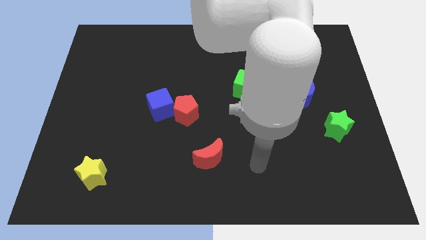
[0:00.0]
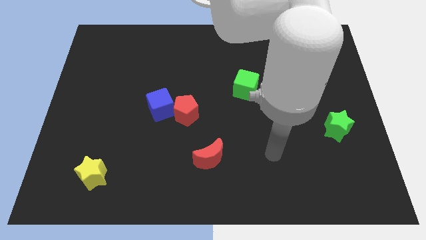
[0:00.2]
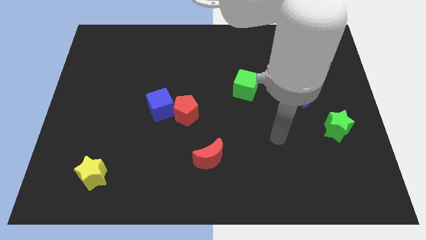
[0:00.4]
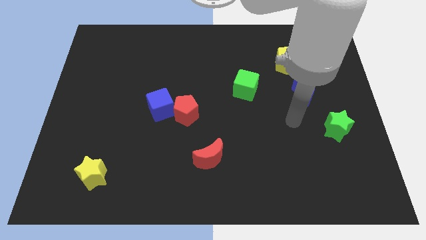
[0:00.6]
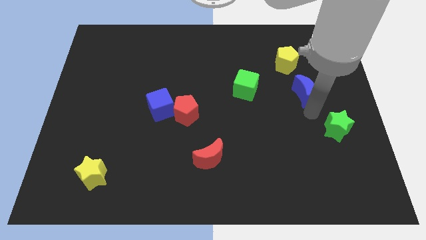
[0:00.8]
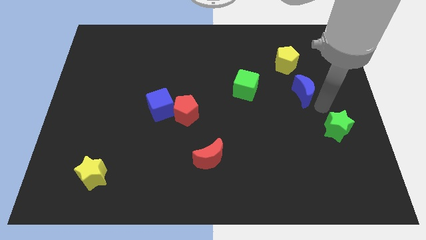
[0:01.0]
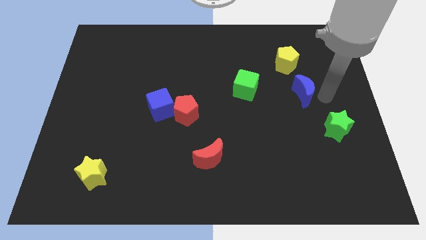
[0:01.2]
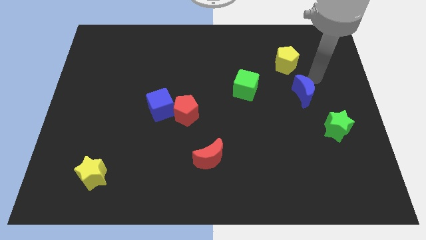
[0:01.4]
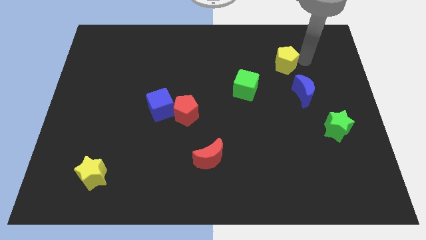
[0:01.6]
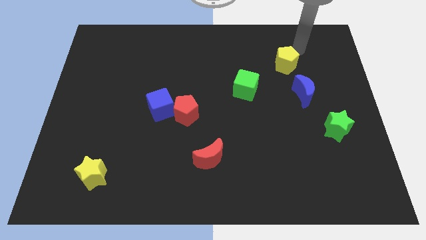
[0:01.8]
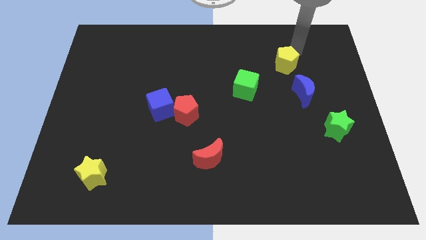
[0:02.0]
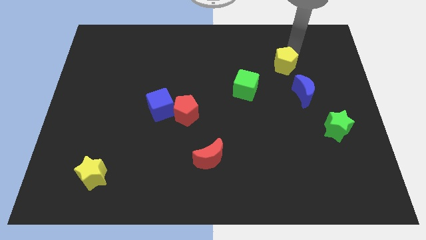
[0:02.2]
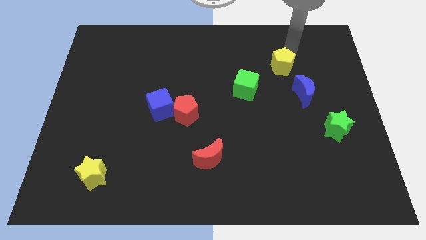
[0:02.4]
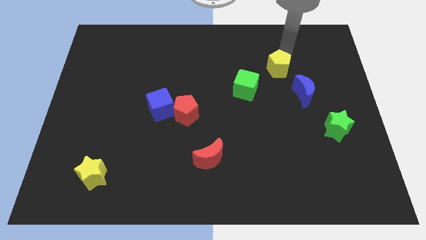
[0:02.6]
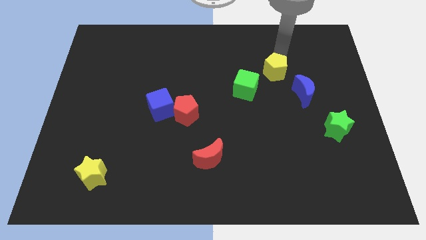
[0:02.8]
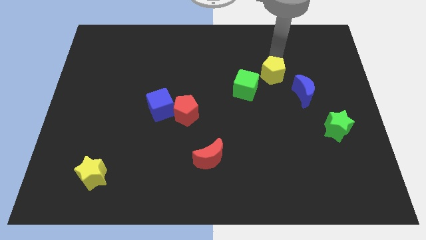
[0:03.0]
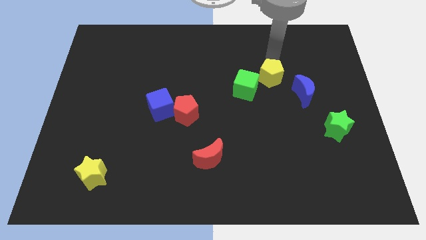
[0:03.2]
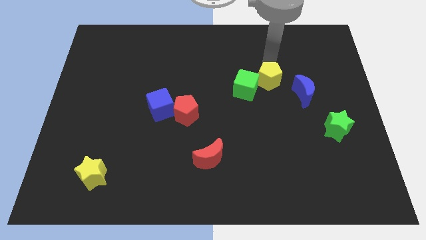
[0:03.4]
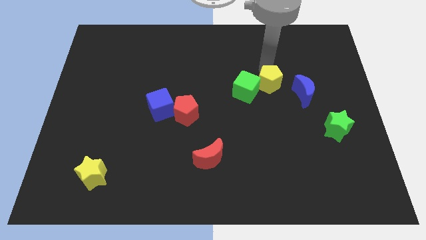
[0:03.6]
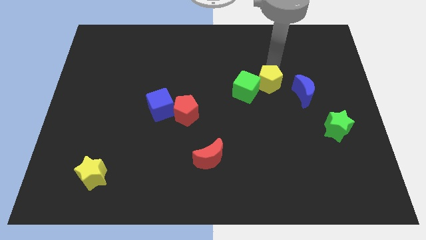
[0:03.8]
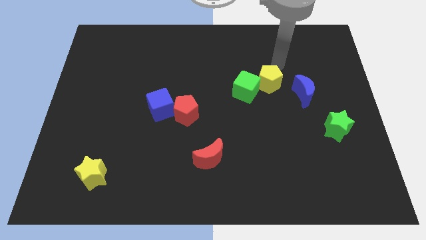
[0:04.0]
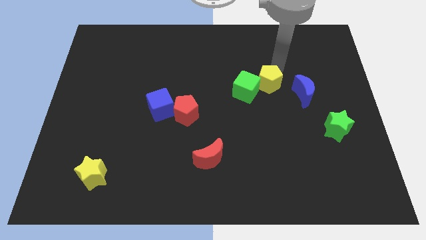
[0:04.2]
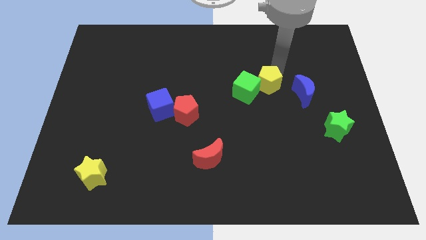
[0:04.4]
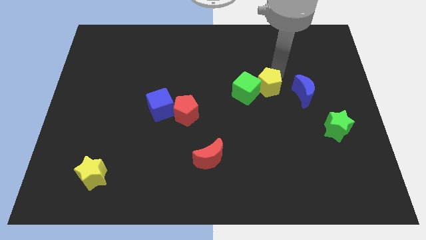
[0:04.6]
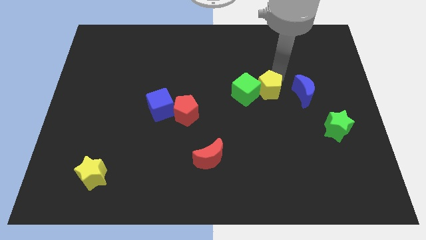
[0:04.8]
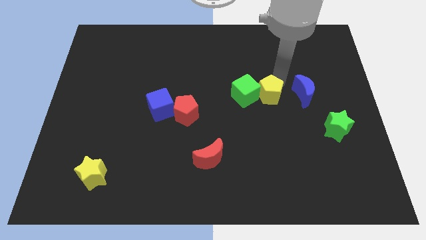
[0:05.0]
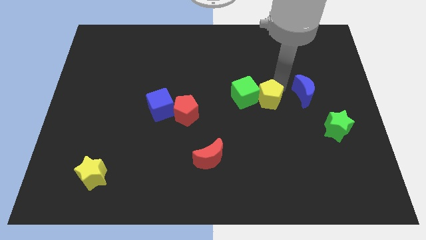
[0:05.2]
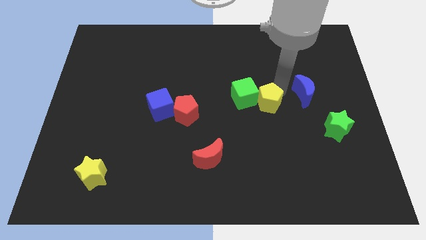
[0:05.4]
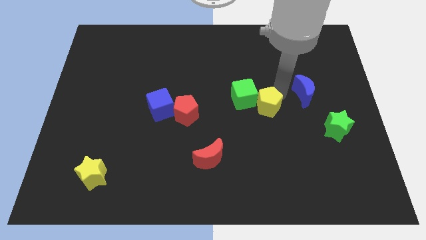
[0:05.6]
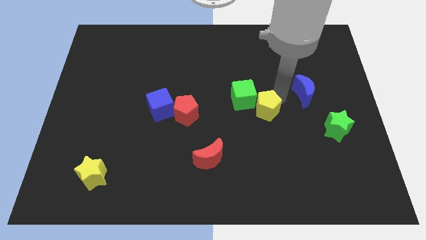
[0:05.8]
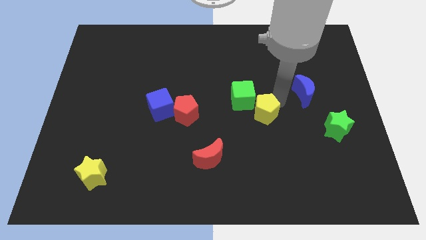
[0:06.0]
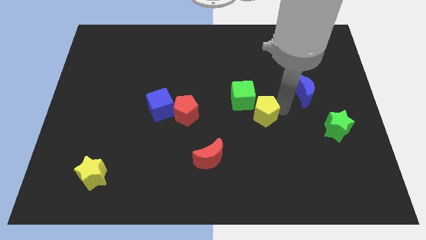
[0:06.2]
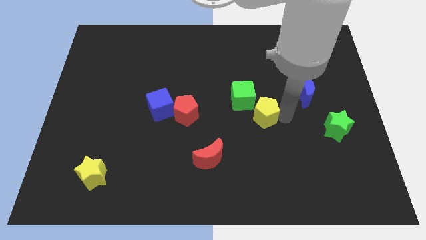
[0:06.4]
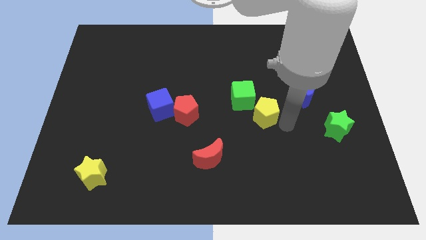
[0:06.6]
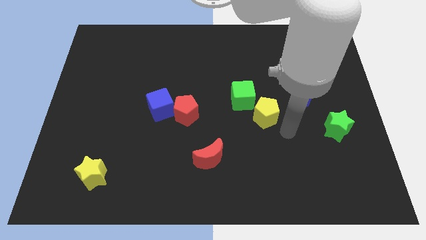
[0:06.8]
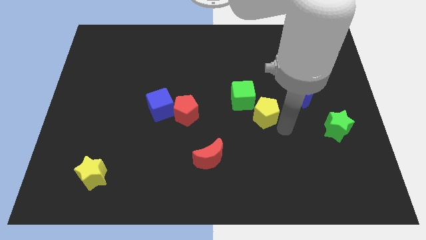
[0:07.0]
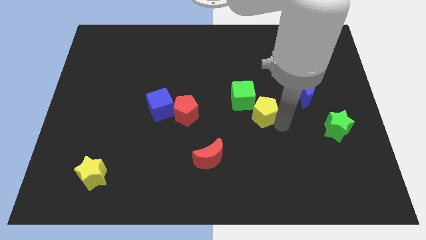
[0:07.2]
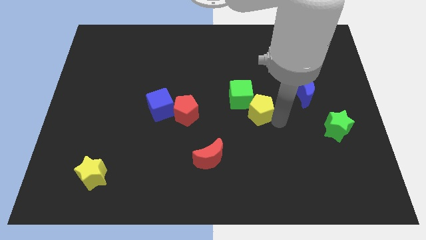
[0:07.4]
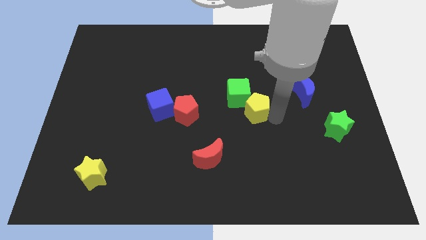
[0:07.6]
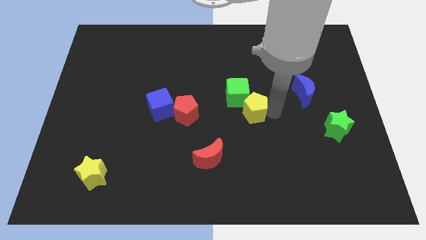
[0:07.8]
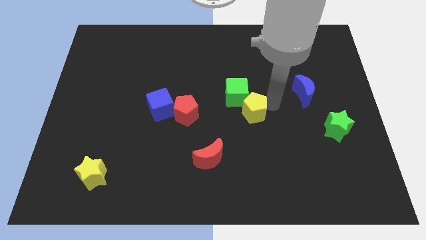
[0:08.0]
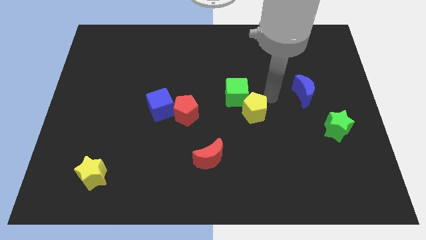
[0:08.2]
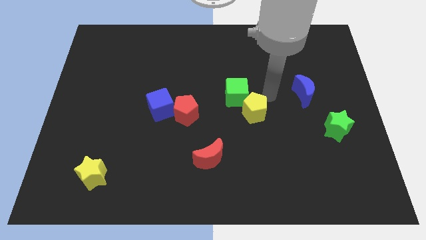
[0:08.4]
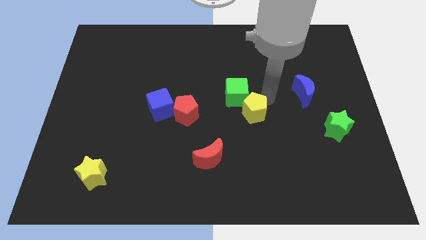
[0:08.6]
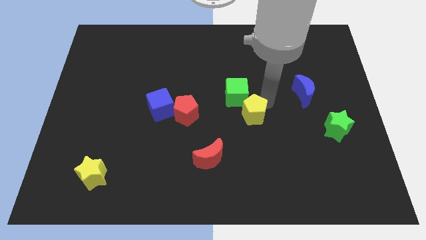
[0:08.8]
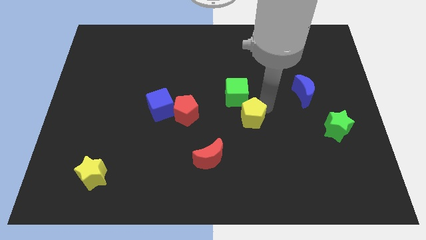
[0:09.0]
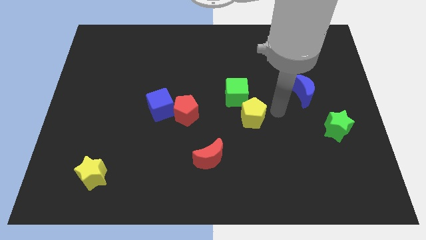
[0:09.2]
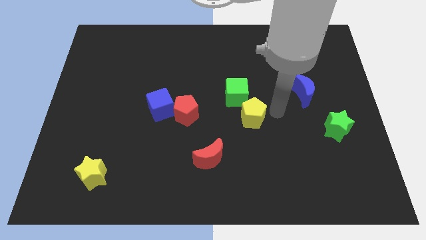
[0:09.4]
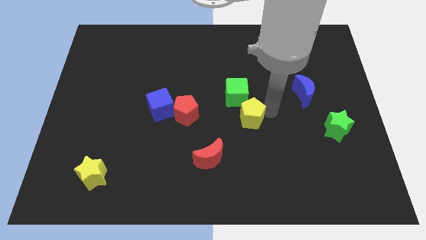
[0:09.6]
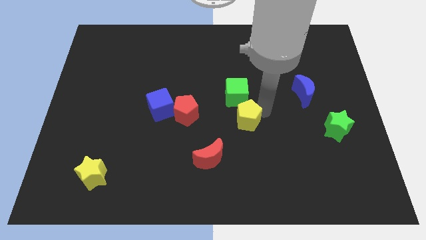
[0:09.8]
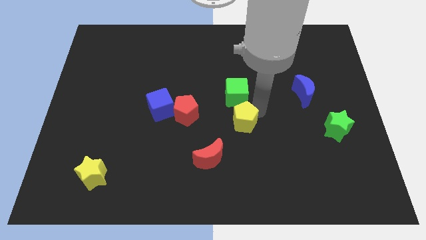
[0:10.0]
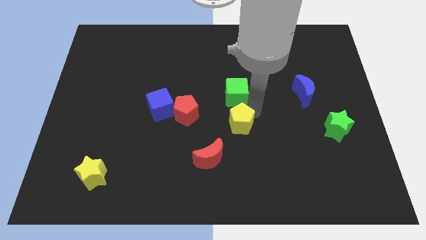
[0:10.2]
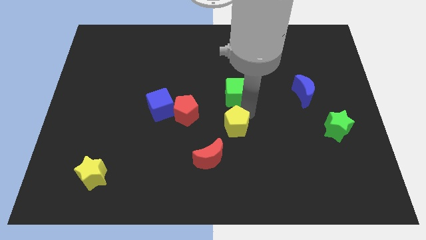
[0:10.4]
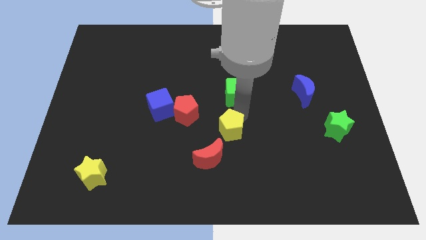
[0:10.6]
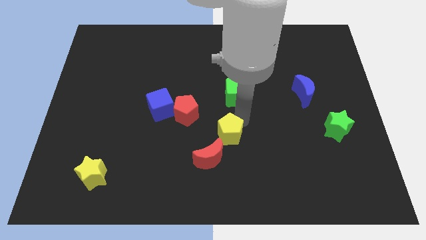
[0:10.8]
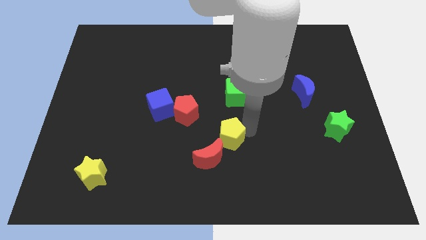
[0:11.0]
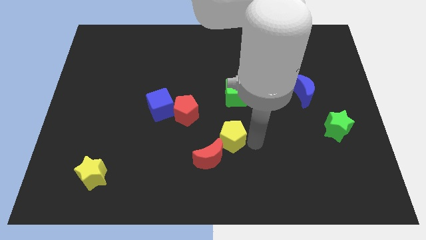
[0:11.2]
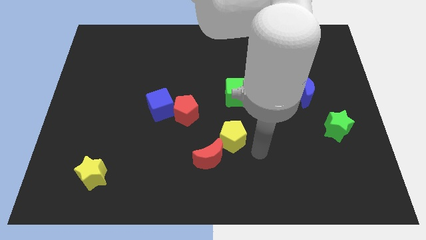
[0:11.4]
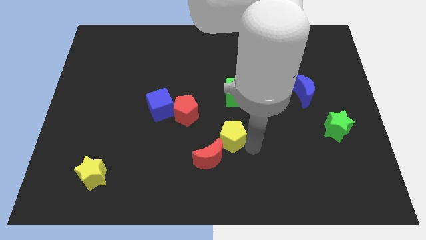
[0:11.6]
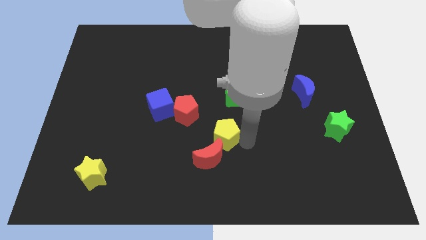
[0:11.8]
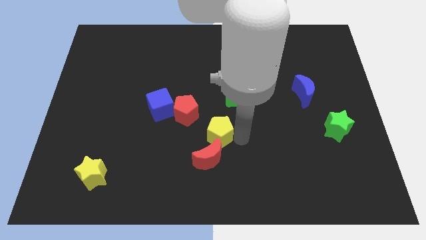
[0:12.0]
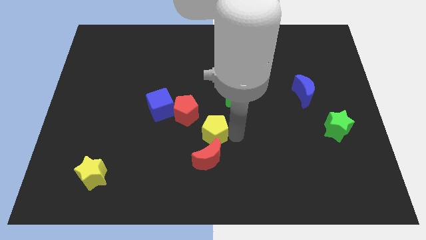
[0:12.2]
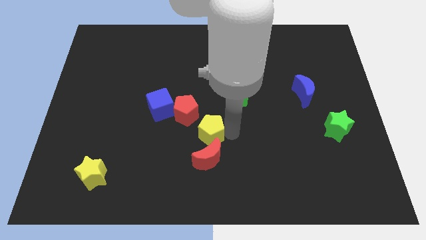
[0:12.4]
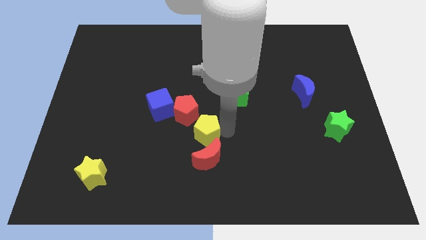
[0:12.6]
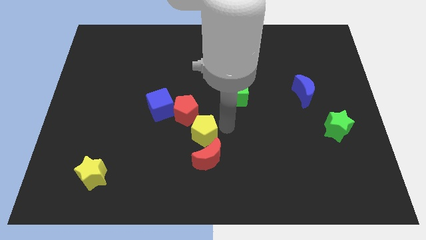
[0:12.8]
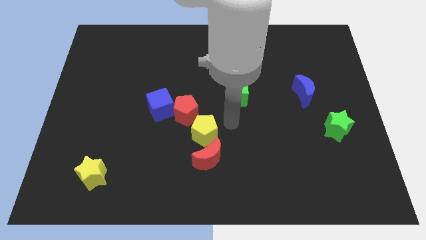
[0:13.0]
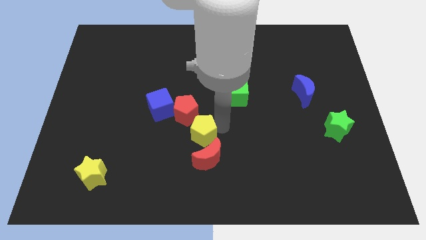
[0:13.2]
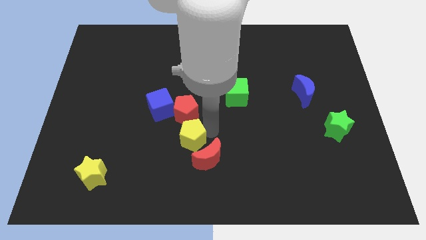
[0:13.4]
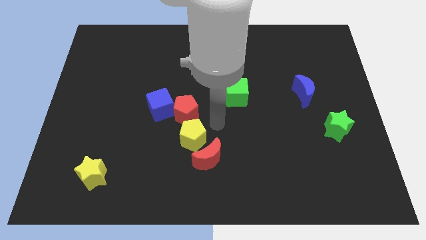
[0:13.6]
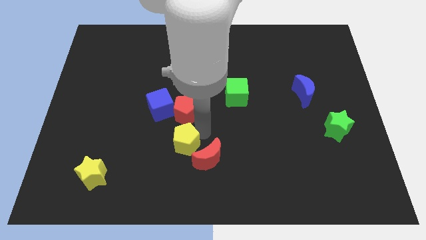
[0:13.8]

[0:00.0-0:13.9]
slide the yellow pentagon to the left side of the red moon
